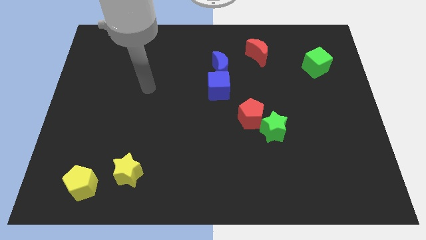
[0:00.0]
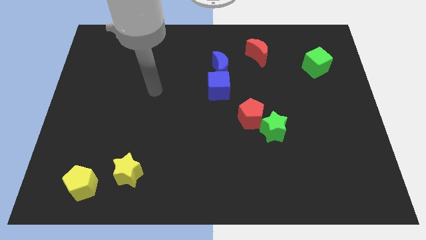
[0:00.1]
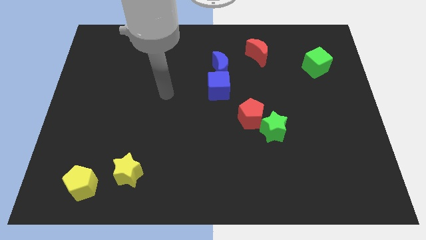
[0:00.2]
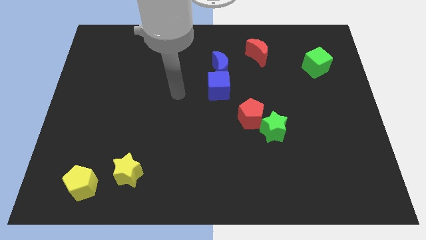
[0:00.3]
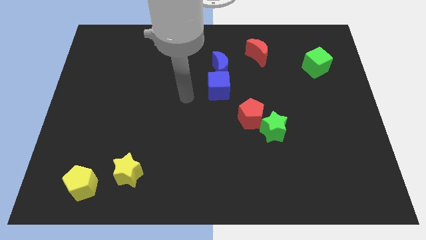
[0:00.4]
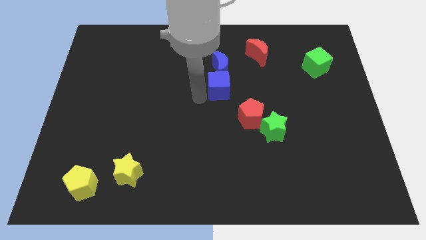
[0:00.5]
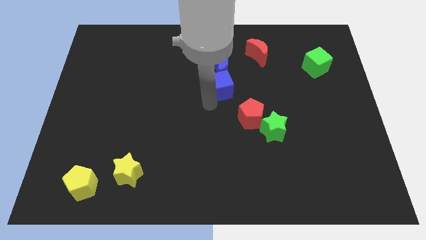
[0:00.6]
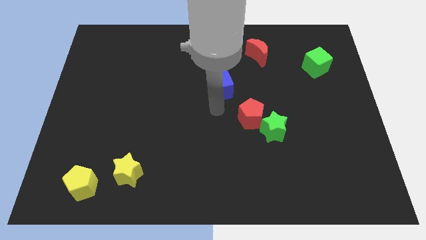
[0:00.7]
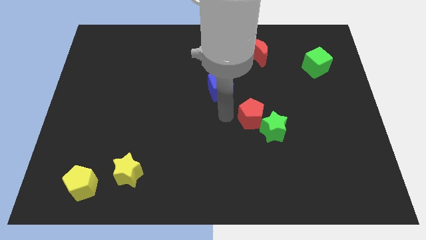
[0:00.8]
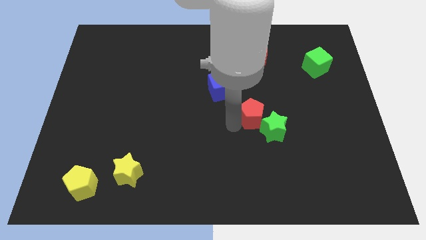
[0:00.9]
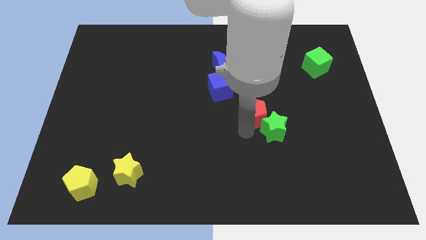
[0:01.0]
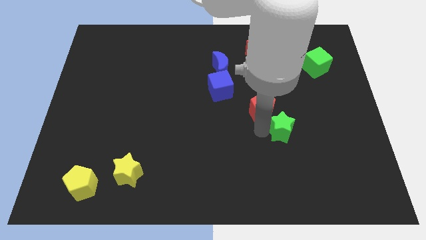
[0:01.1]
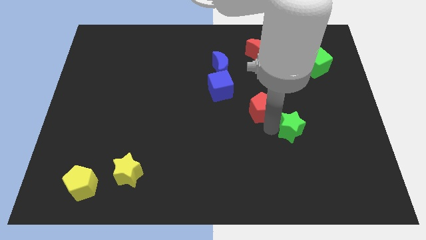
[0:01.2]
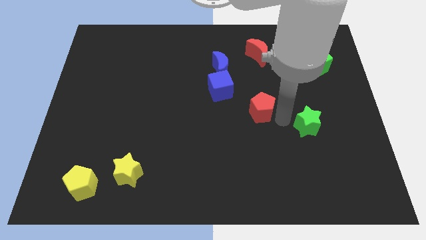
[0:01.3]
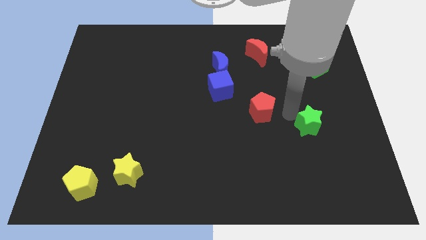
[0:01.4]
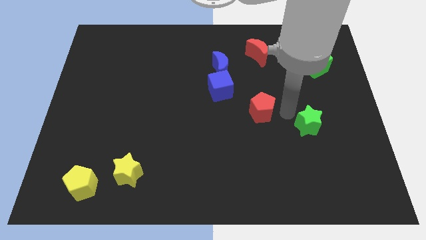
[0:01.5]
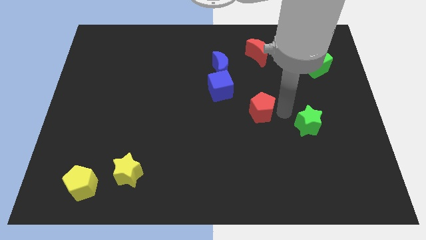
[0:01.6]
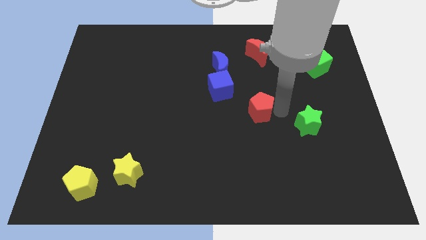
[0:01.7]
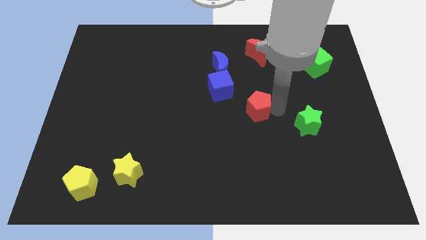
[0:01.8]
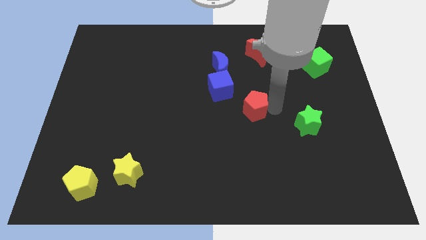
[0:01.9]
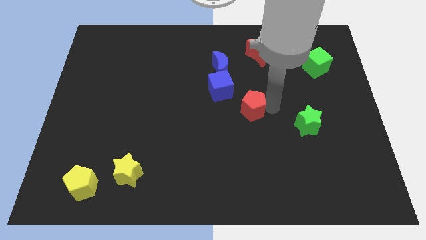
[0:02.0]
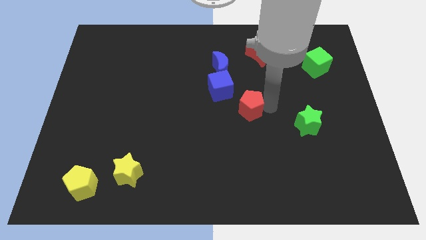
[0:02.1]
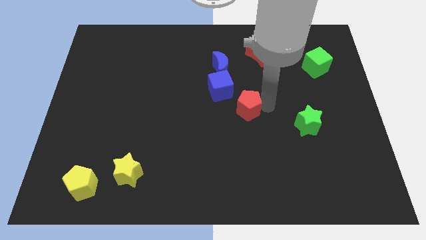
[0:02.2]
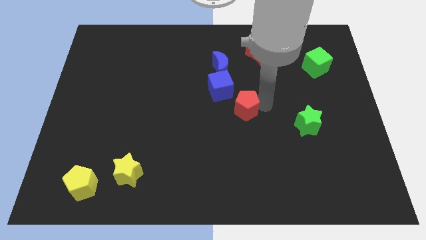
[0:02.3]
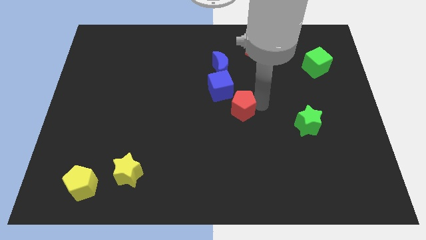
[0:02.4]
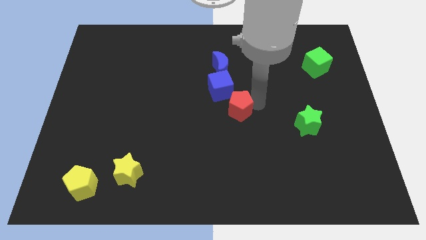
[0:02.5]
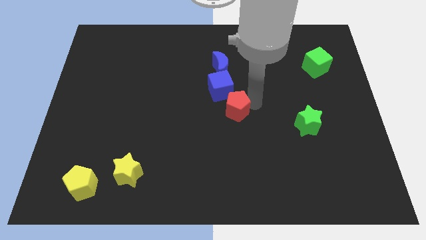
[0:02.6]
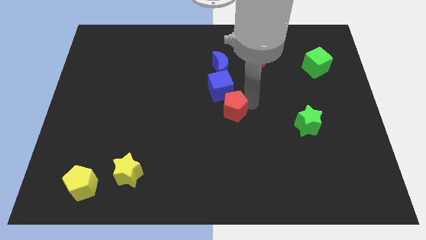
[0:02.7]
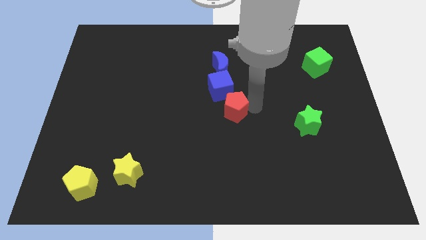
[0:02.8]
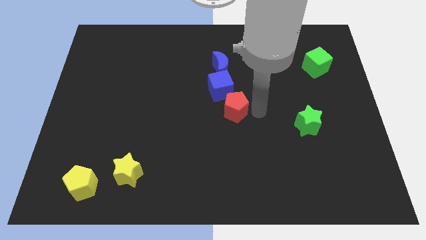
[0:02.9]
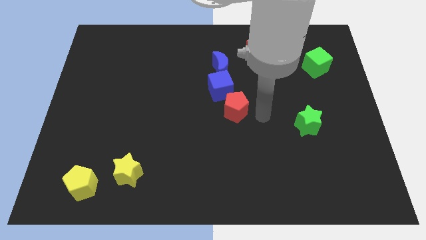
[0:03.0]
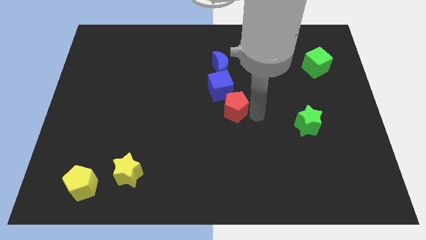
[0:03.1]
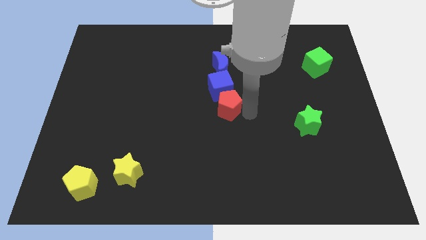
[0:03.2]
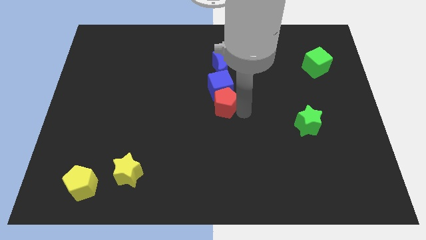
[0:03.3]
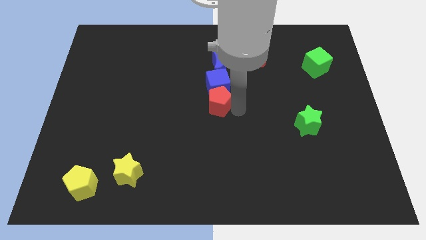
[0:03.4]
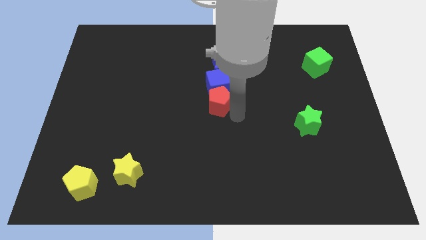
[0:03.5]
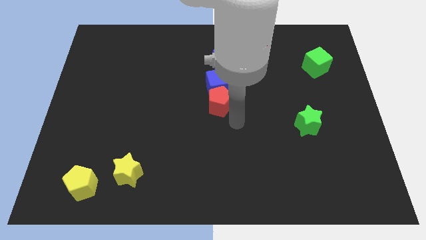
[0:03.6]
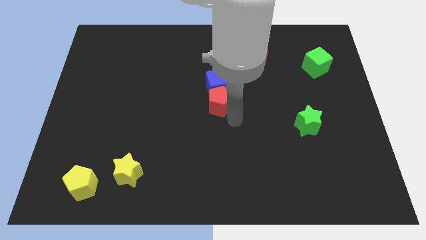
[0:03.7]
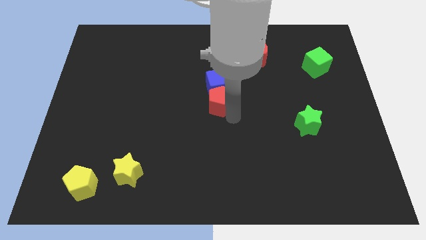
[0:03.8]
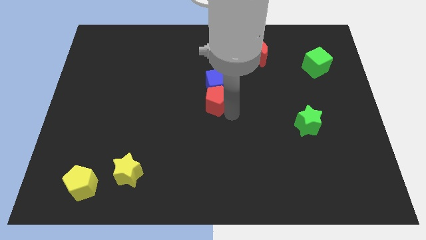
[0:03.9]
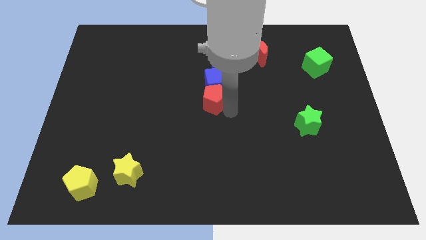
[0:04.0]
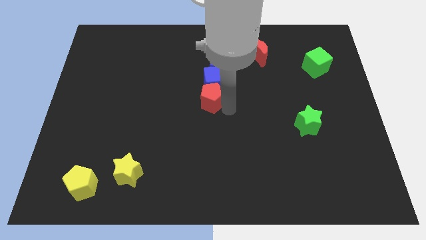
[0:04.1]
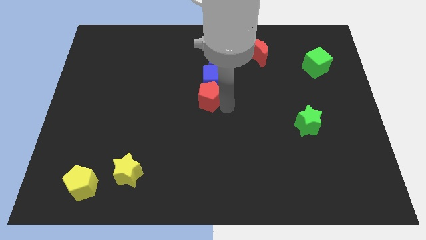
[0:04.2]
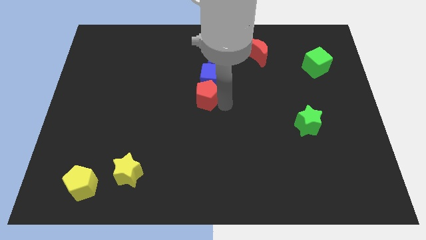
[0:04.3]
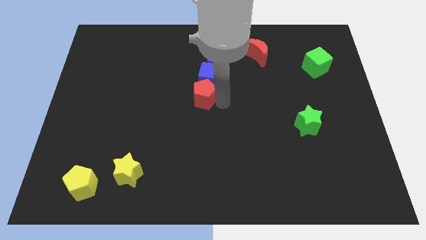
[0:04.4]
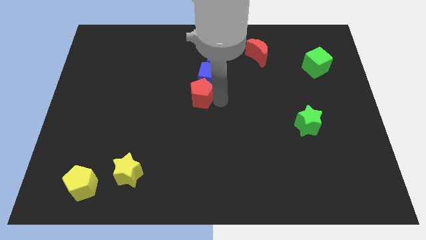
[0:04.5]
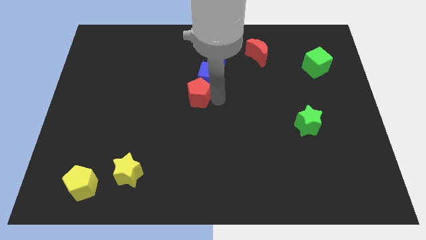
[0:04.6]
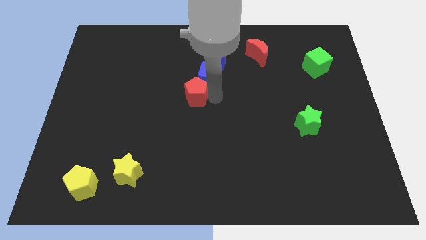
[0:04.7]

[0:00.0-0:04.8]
slide the red pentagon to the bottom left of the blue moon

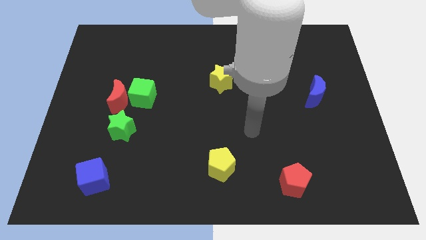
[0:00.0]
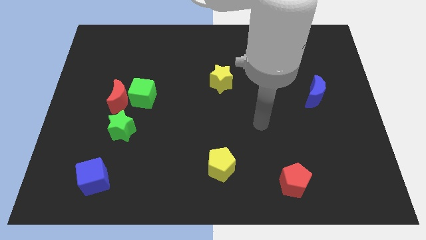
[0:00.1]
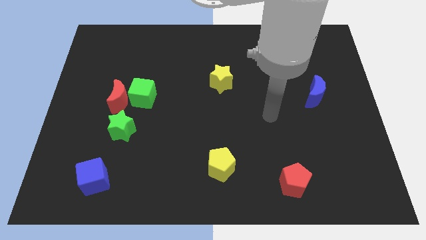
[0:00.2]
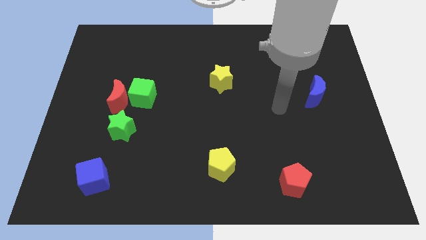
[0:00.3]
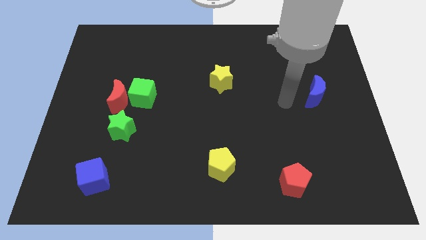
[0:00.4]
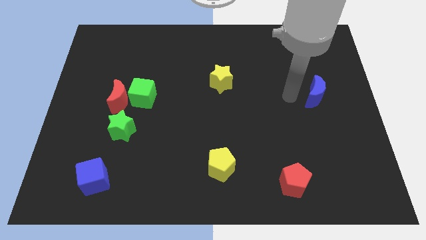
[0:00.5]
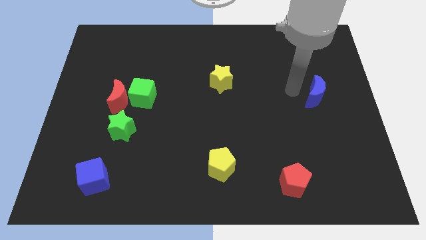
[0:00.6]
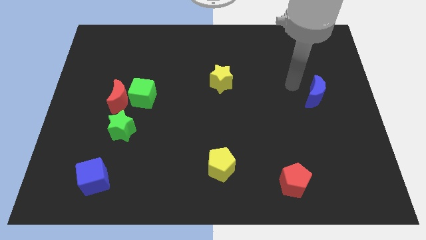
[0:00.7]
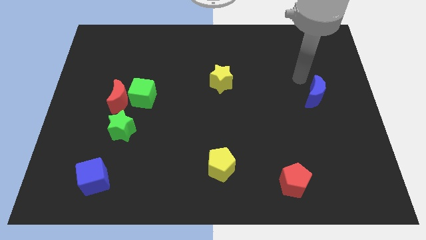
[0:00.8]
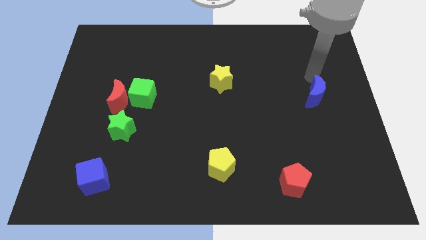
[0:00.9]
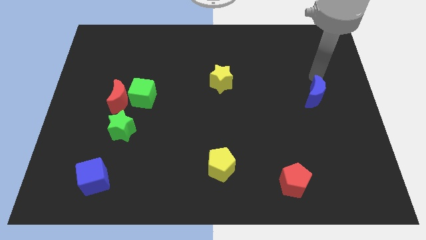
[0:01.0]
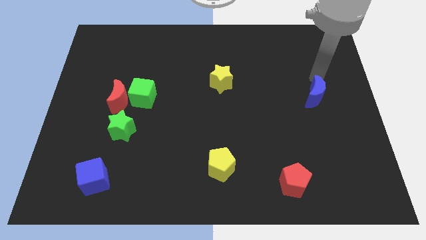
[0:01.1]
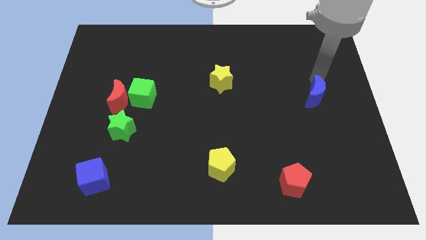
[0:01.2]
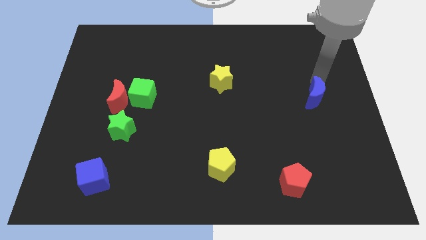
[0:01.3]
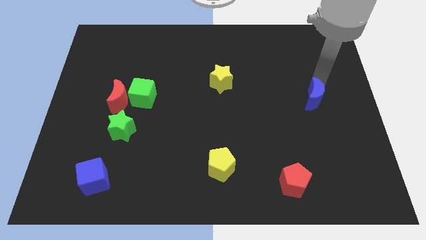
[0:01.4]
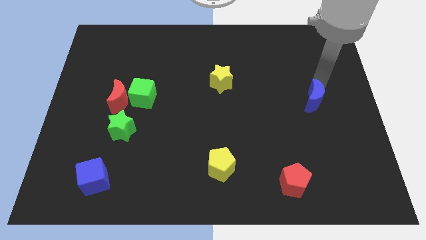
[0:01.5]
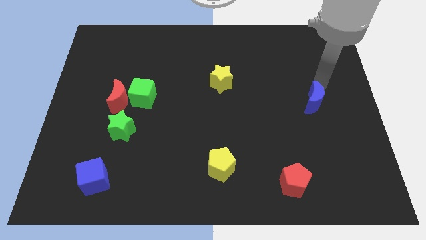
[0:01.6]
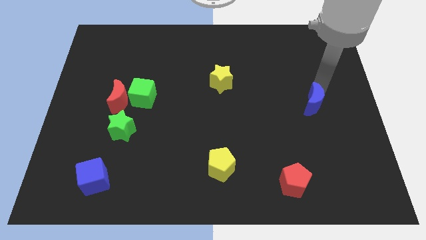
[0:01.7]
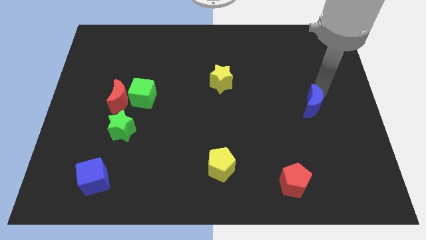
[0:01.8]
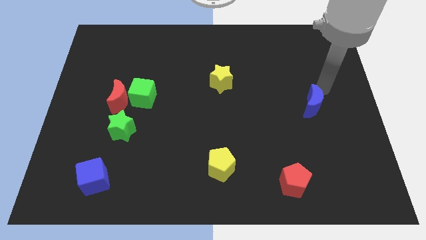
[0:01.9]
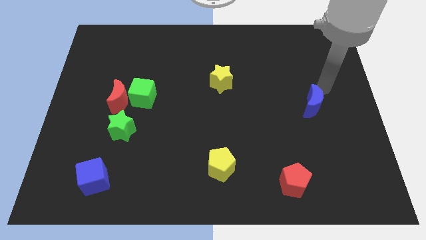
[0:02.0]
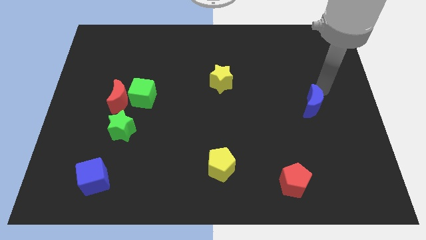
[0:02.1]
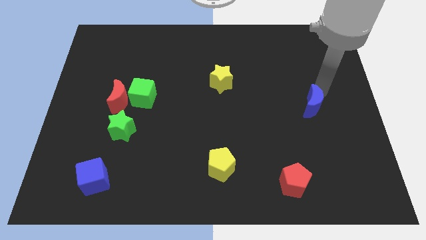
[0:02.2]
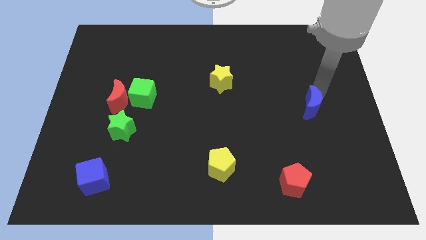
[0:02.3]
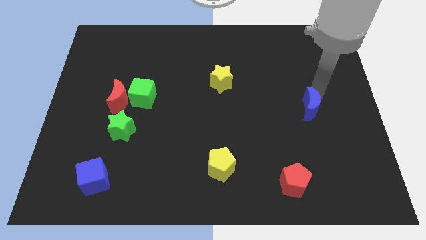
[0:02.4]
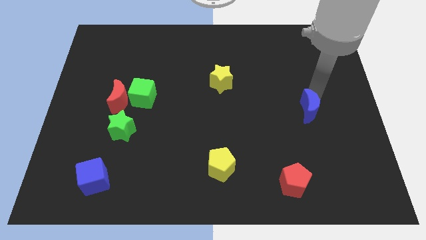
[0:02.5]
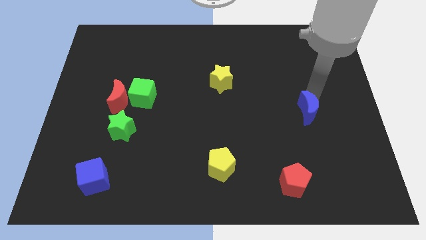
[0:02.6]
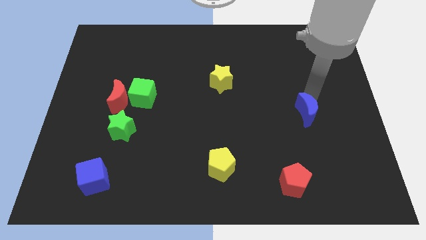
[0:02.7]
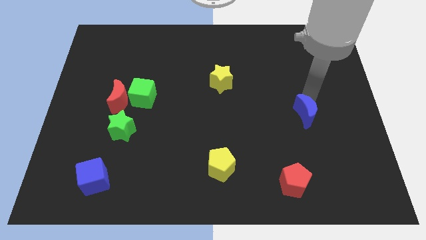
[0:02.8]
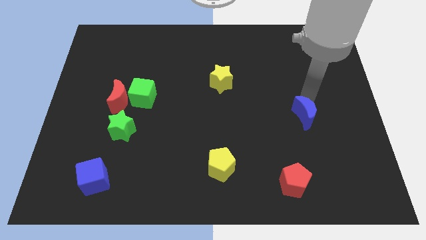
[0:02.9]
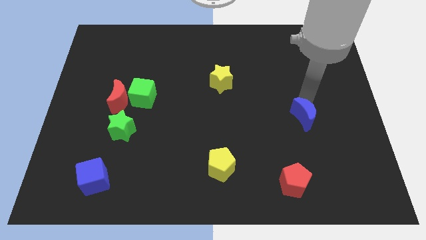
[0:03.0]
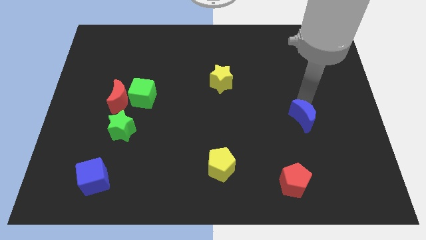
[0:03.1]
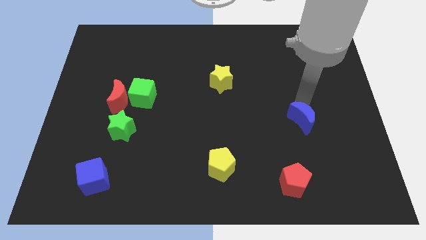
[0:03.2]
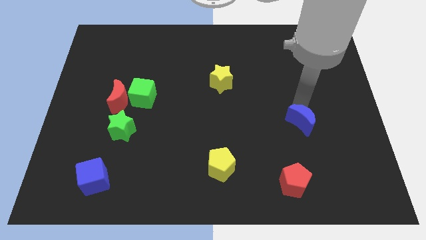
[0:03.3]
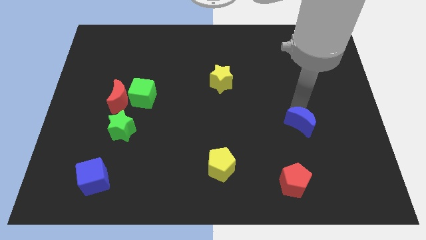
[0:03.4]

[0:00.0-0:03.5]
push the blue moon to the top of the red pentagon
